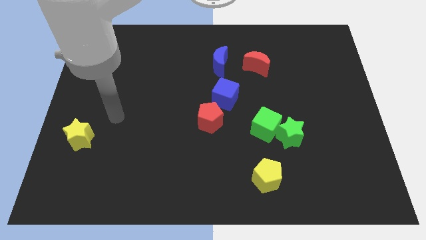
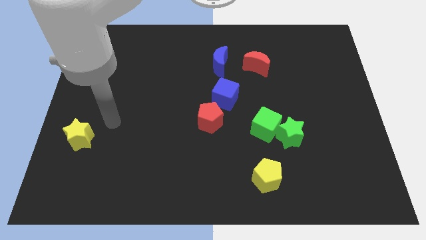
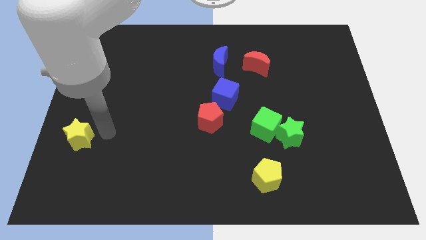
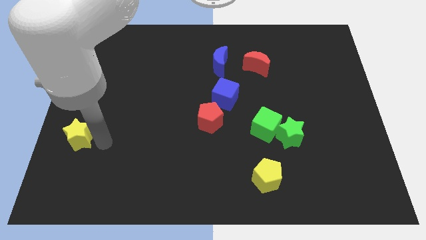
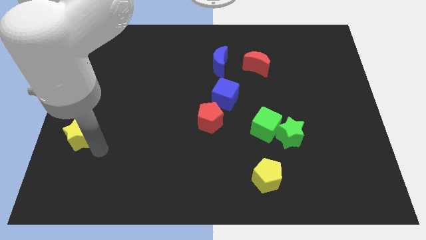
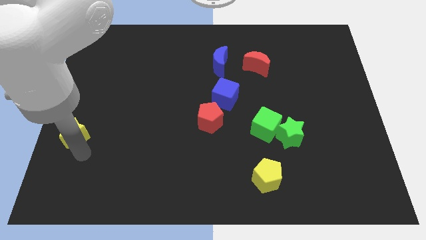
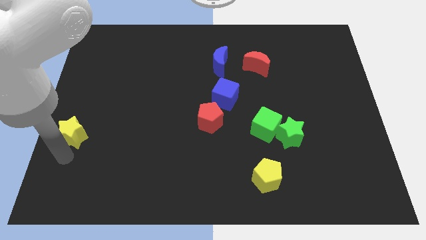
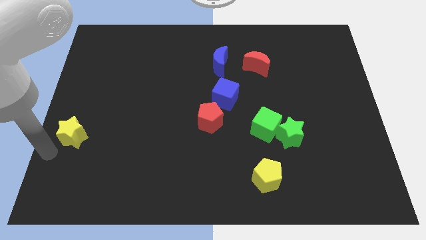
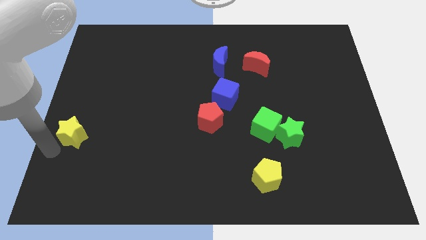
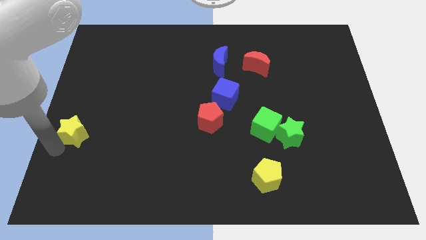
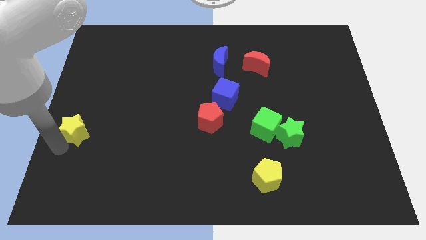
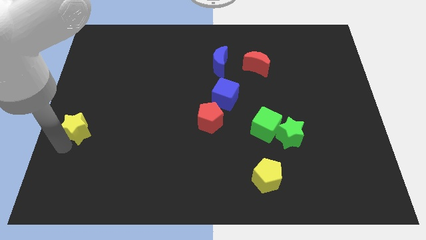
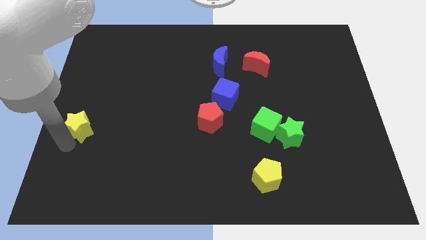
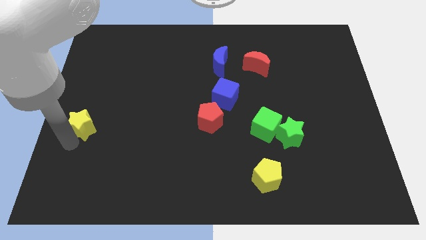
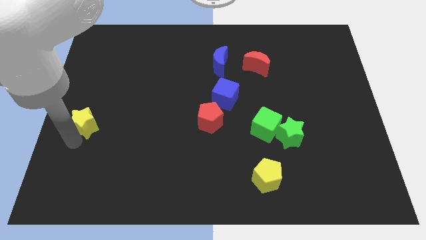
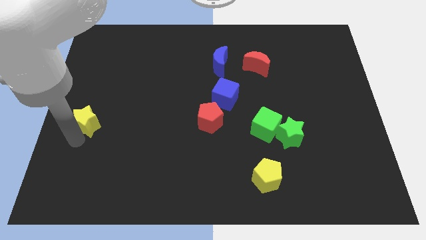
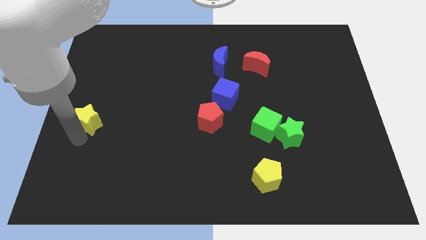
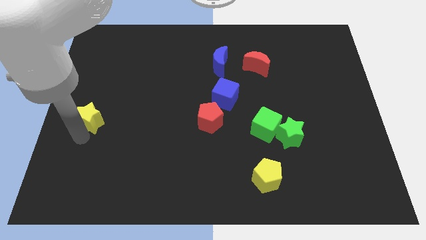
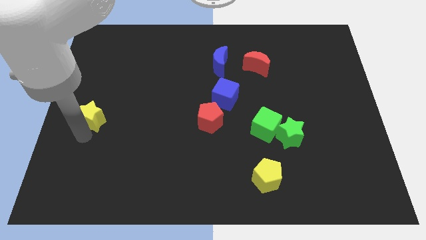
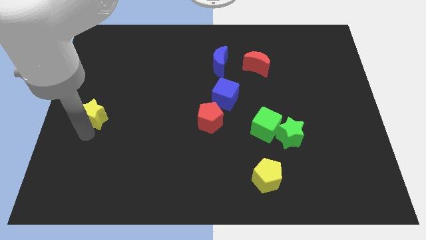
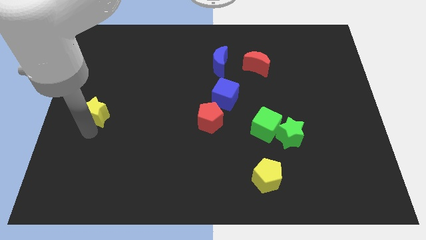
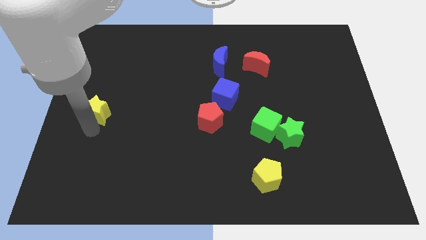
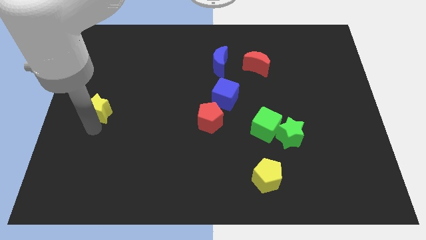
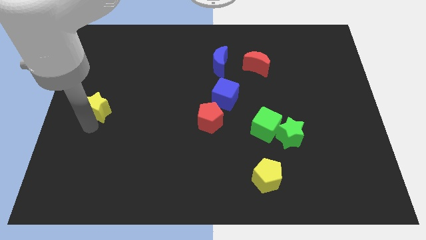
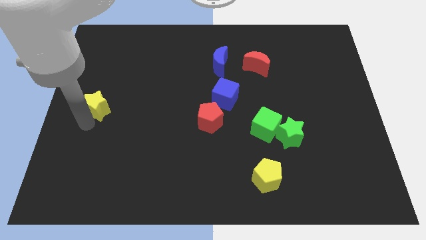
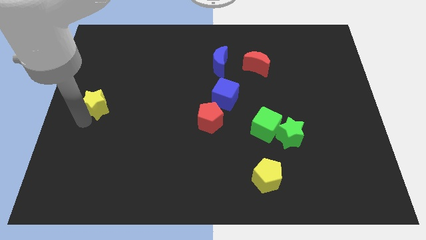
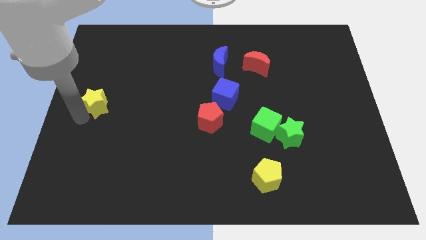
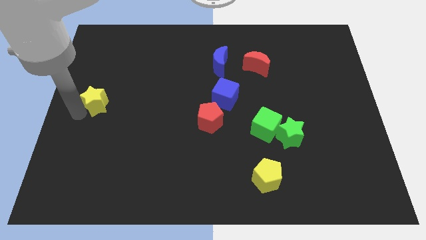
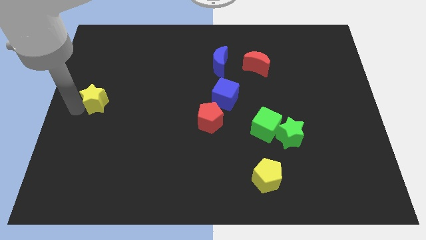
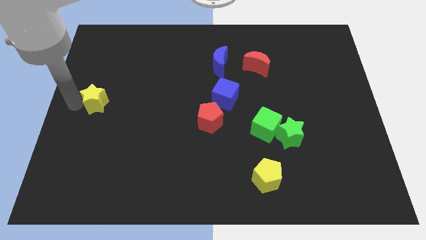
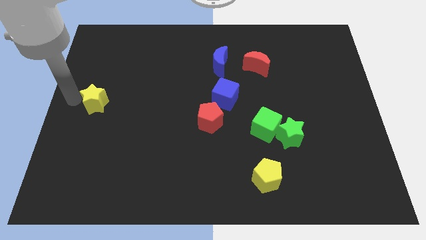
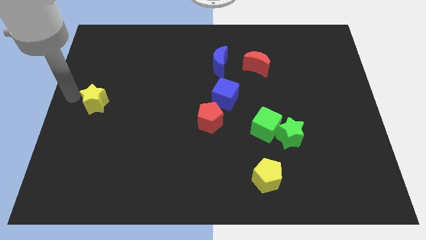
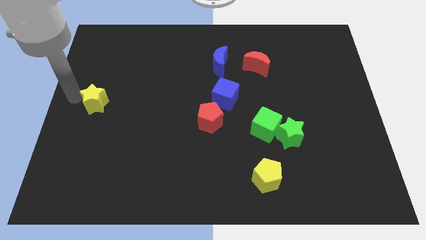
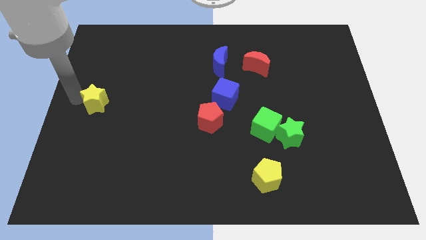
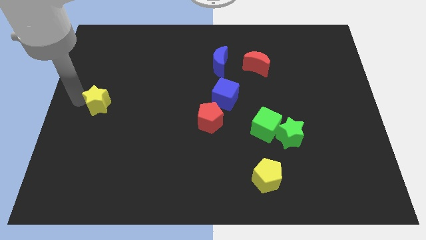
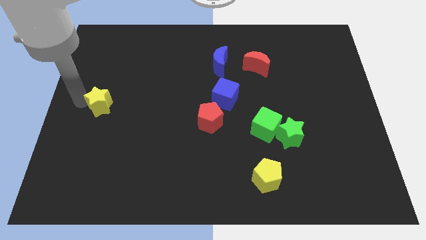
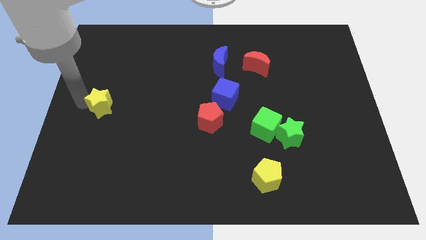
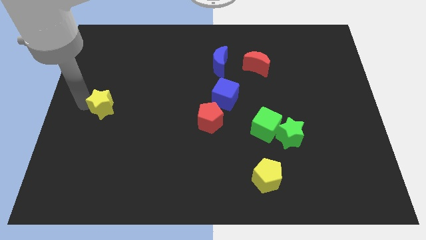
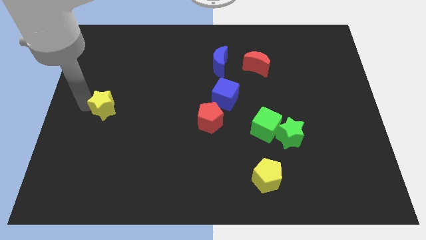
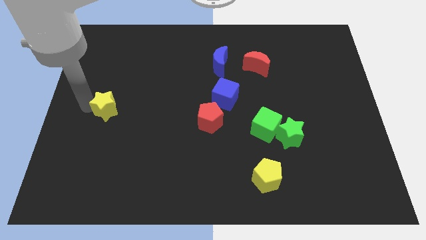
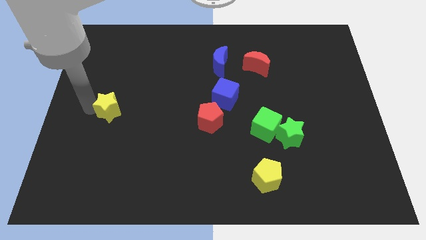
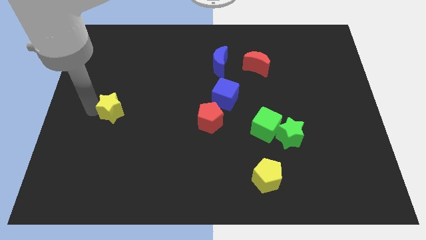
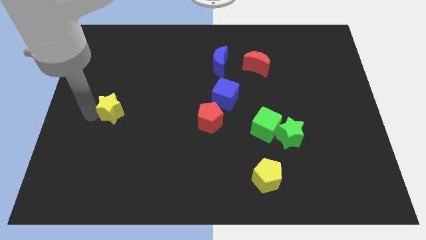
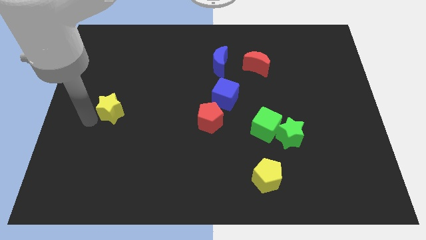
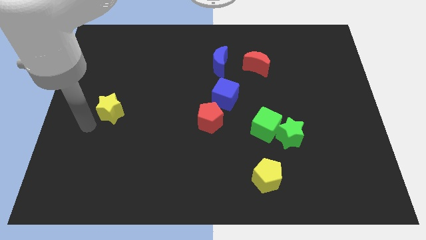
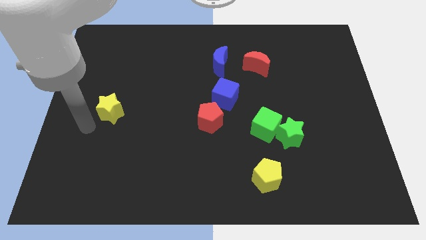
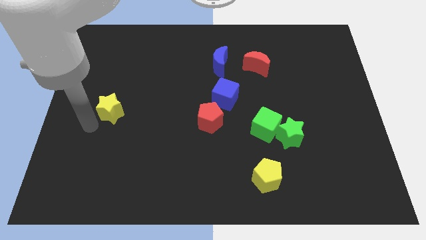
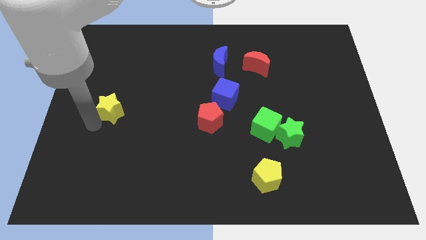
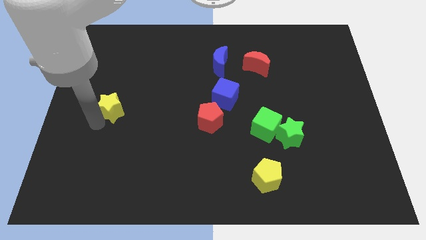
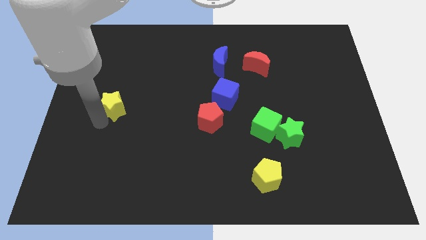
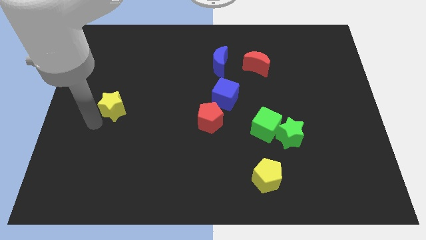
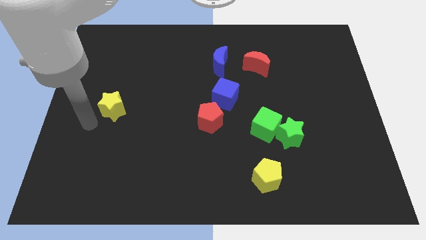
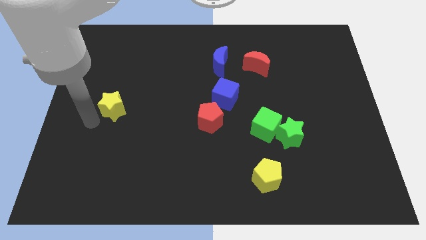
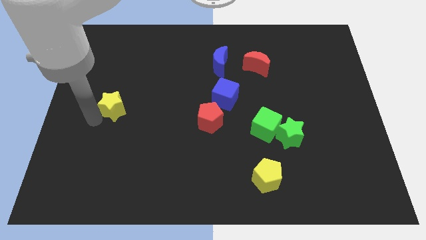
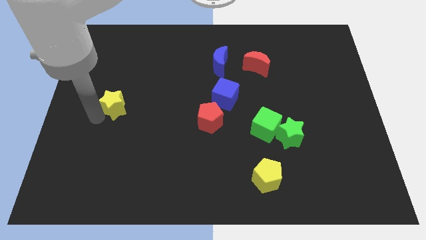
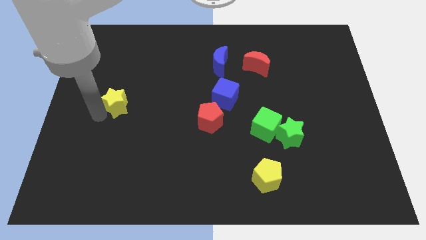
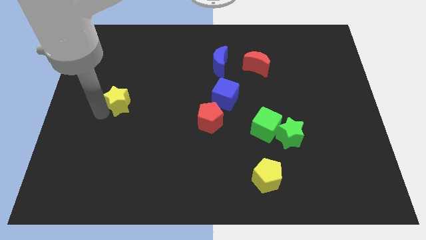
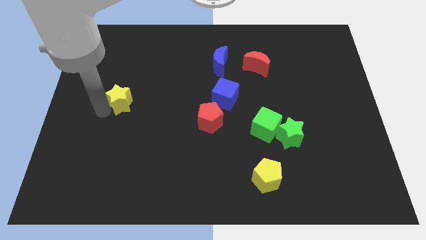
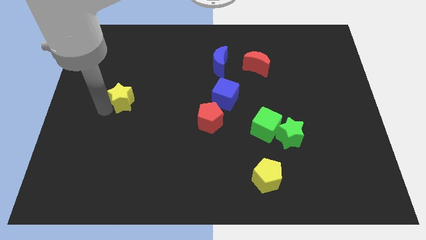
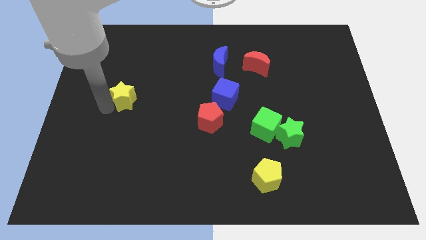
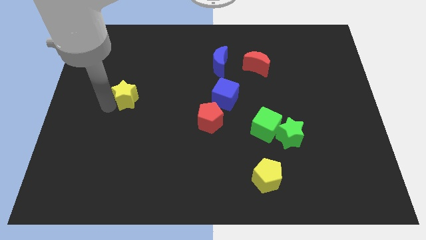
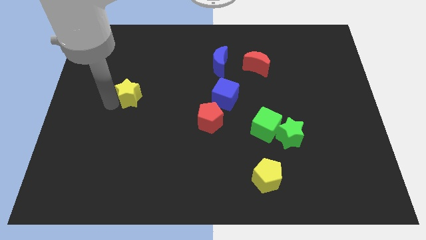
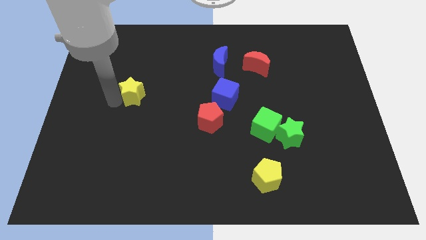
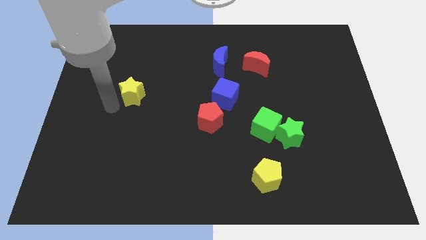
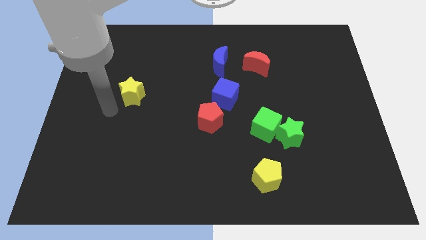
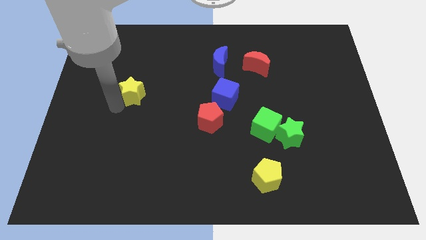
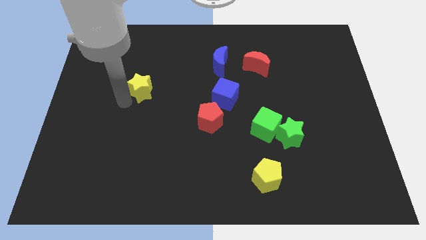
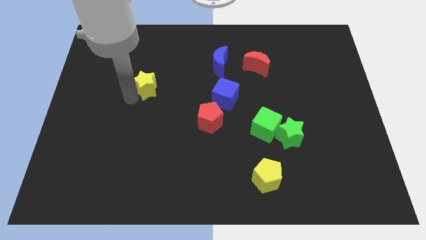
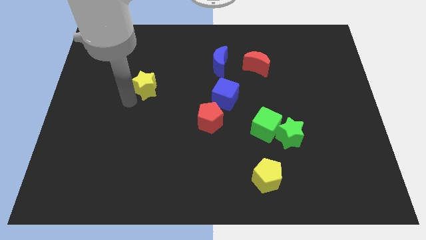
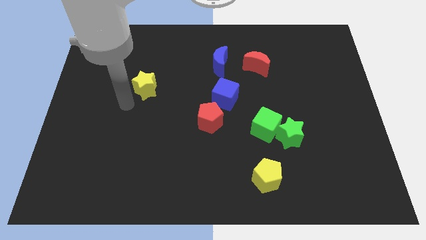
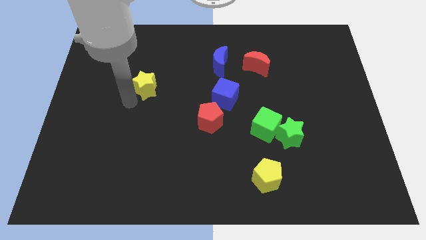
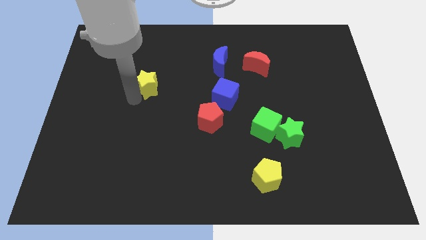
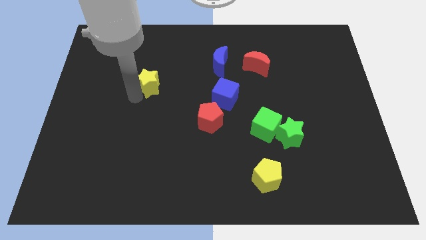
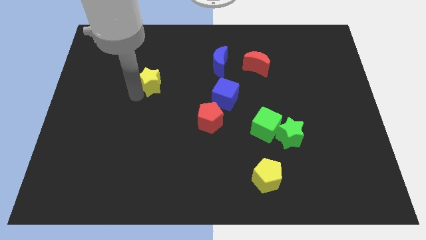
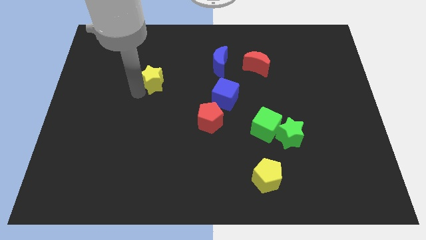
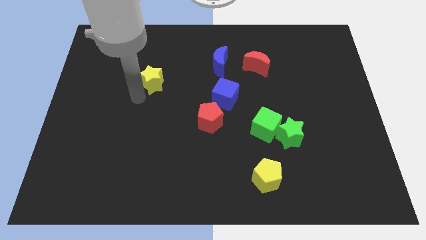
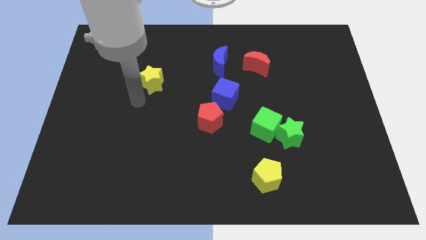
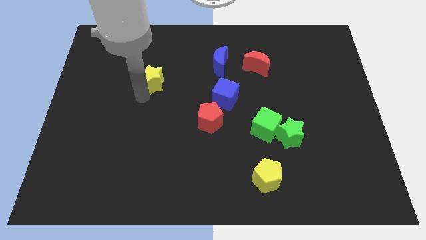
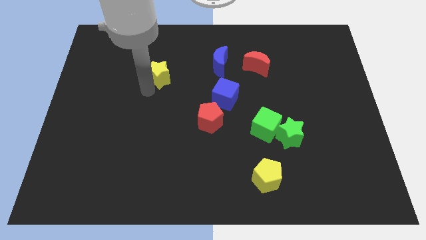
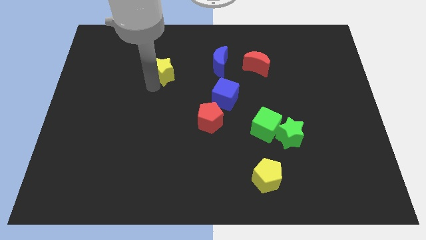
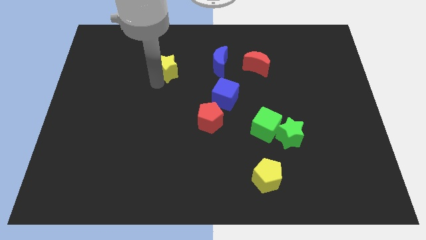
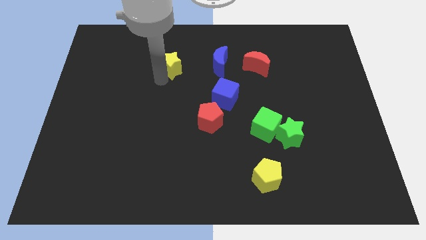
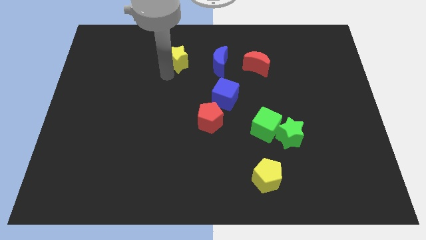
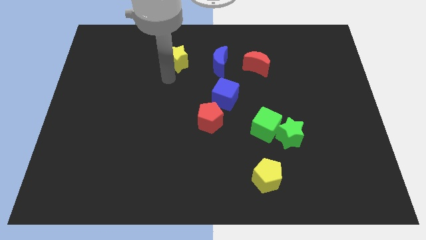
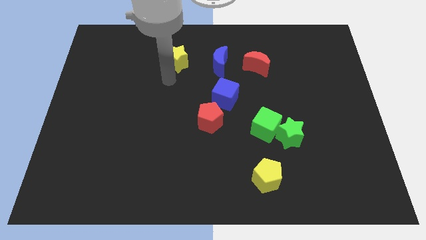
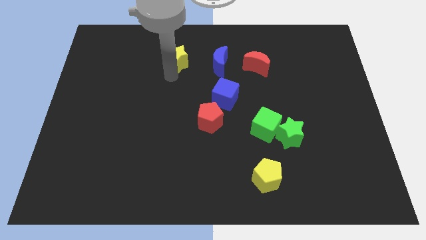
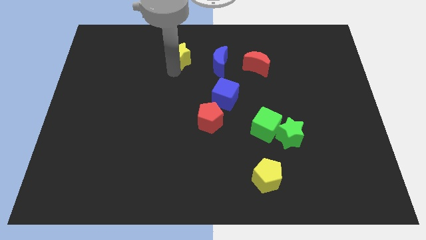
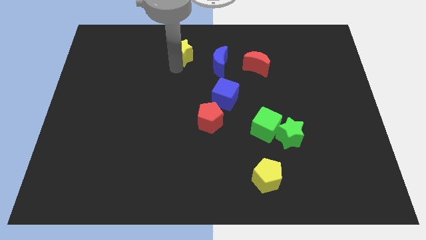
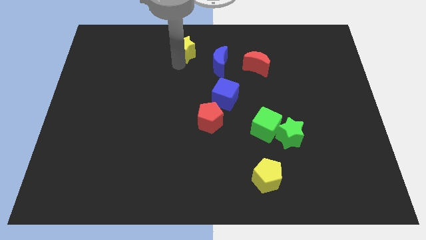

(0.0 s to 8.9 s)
push the yellow star to the top
